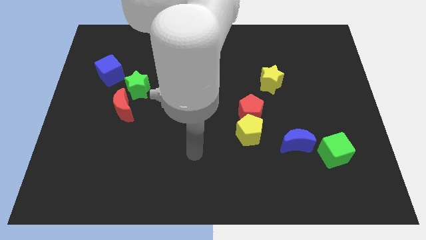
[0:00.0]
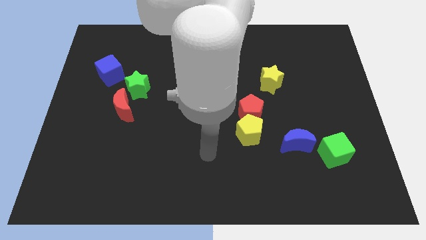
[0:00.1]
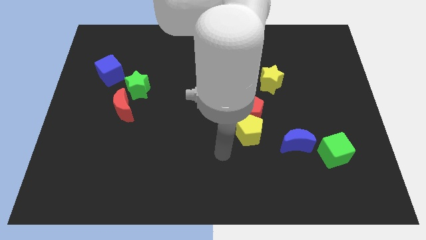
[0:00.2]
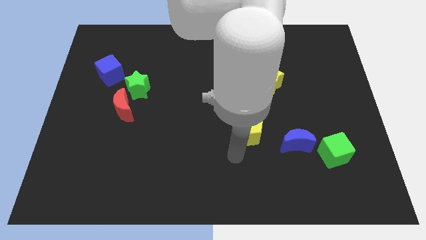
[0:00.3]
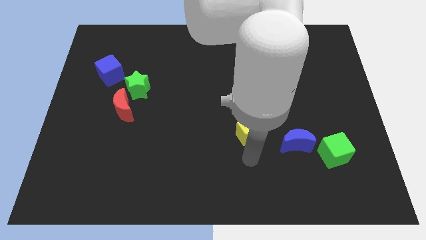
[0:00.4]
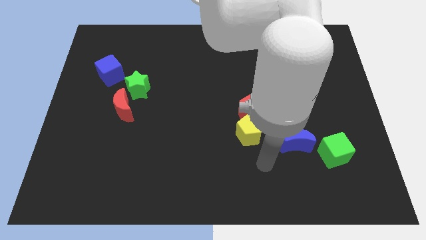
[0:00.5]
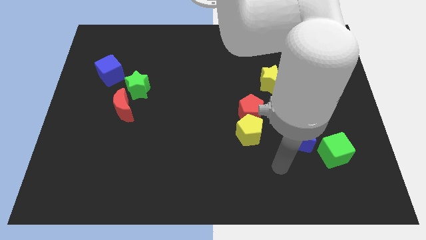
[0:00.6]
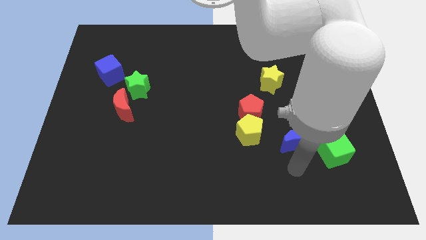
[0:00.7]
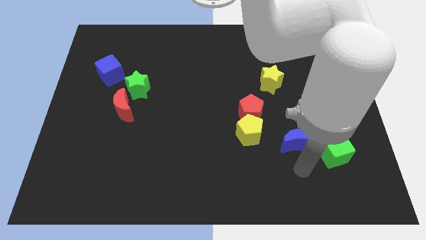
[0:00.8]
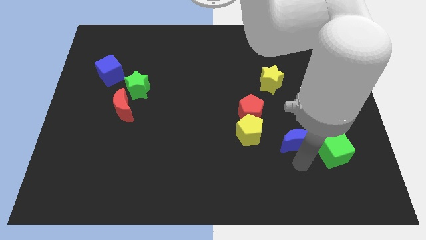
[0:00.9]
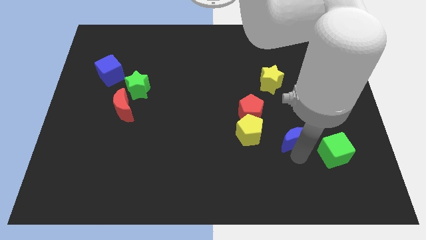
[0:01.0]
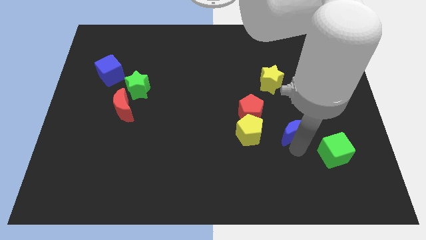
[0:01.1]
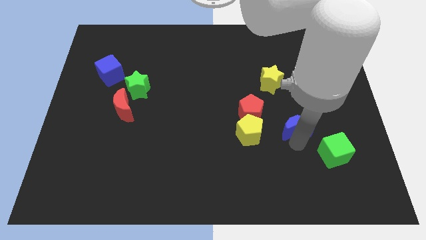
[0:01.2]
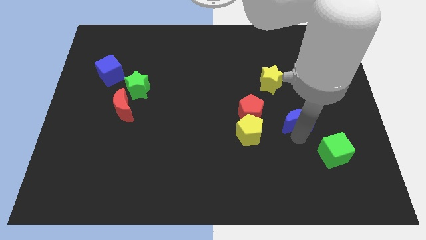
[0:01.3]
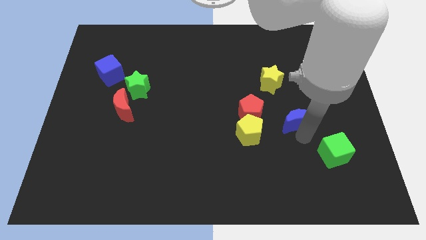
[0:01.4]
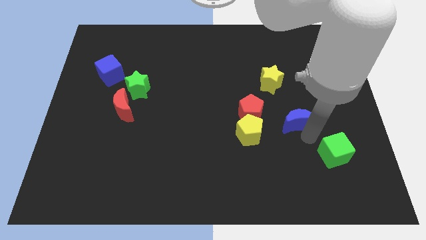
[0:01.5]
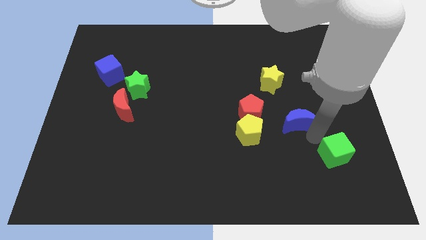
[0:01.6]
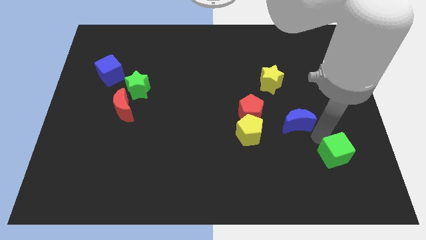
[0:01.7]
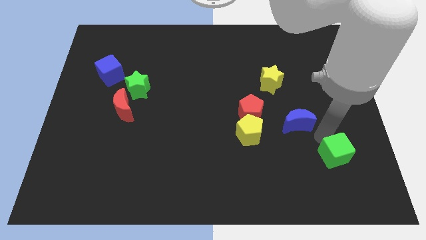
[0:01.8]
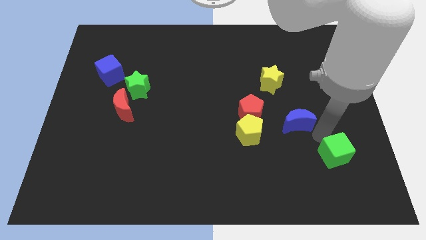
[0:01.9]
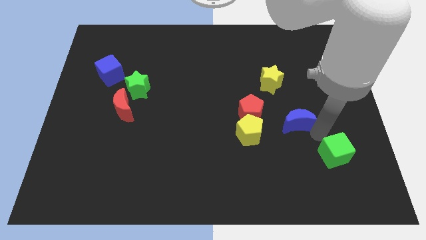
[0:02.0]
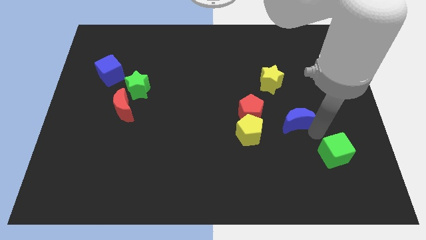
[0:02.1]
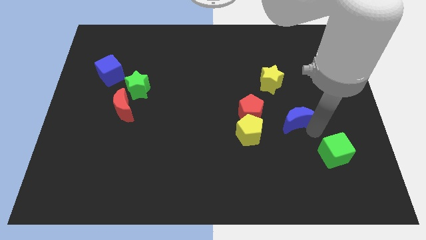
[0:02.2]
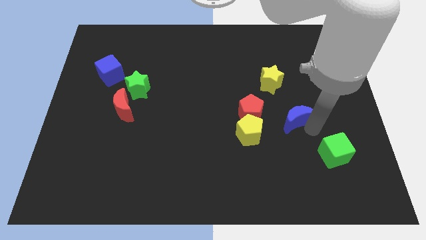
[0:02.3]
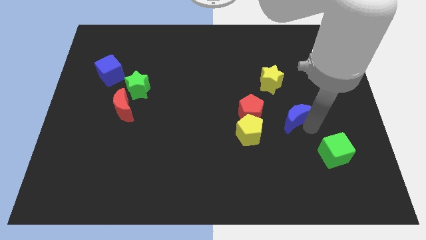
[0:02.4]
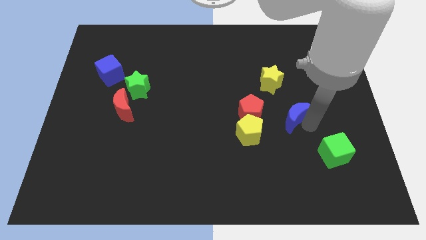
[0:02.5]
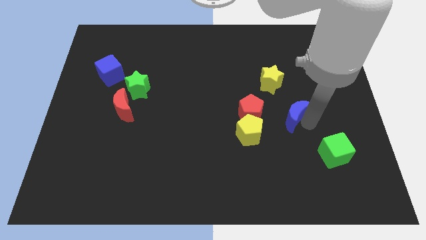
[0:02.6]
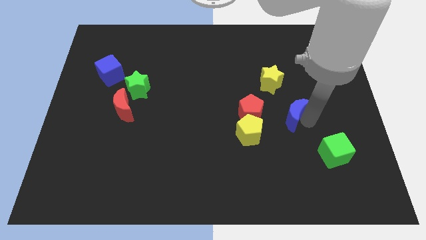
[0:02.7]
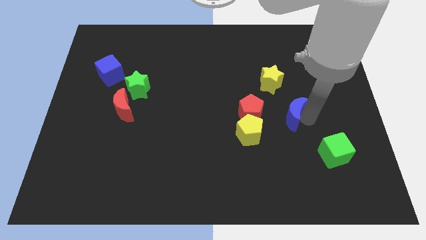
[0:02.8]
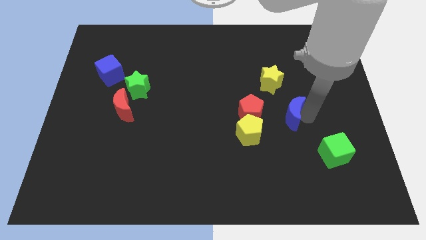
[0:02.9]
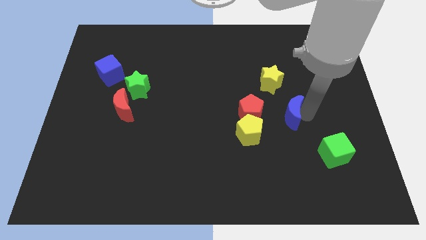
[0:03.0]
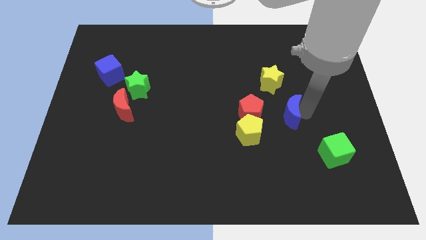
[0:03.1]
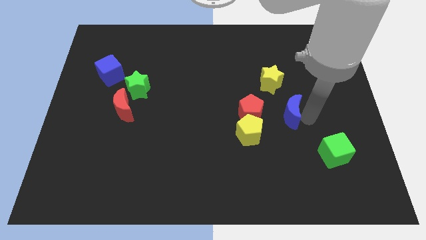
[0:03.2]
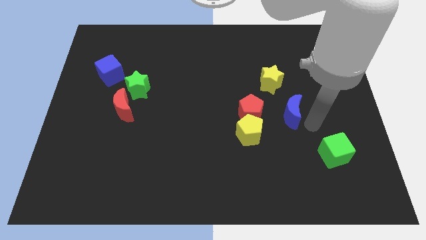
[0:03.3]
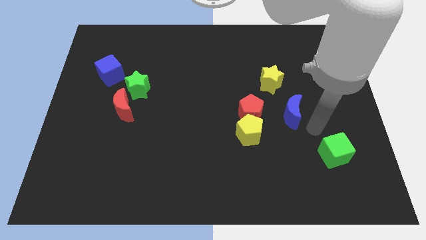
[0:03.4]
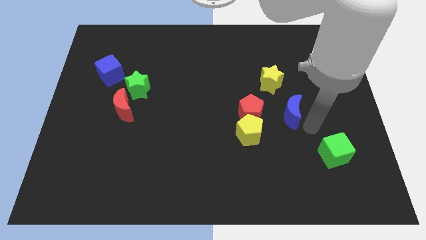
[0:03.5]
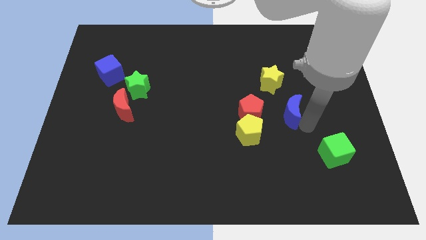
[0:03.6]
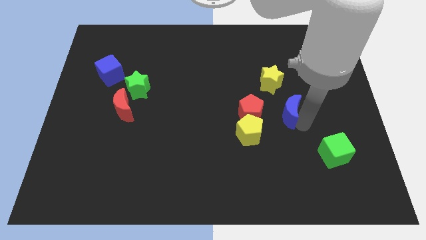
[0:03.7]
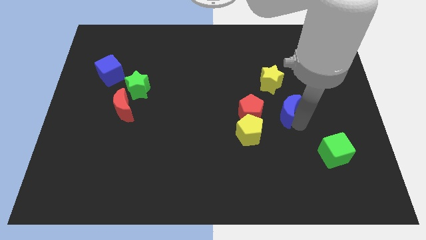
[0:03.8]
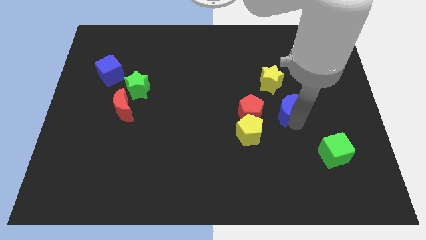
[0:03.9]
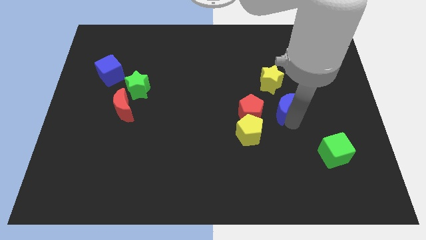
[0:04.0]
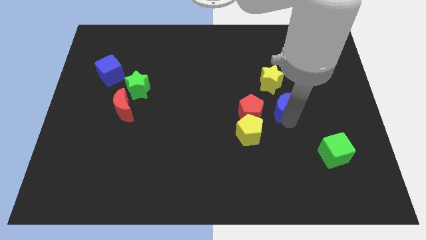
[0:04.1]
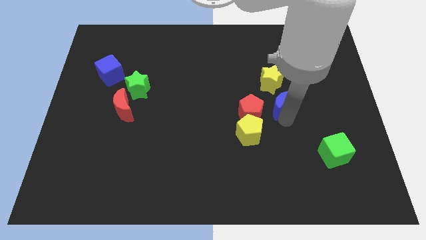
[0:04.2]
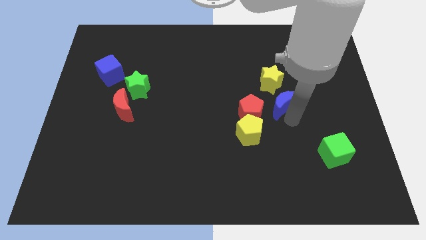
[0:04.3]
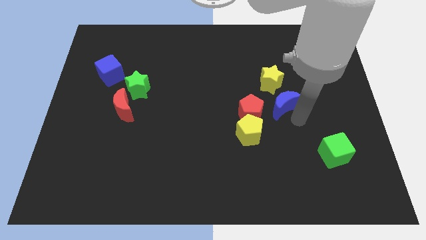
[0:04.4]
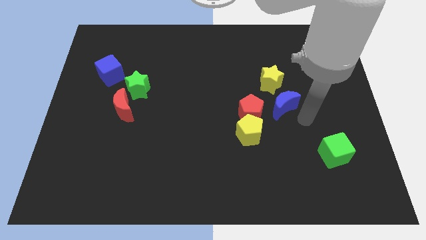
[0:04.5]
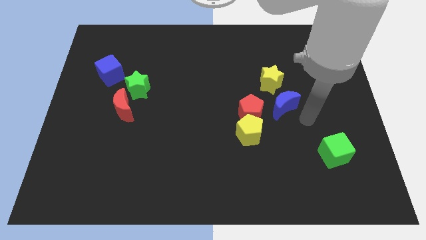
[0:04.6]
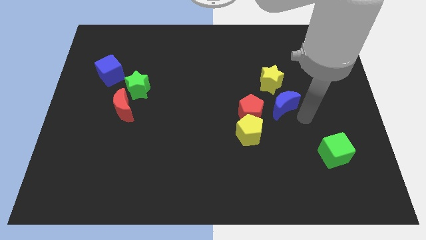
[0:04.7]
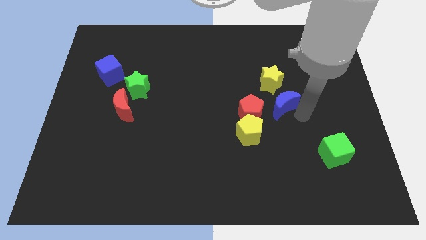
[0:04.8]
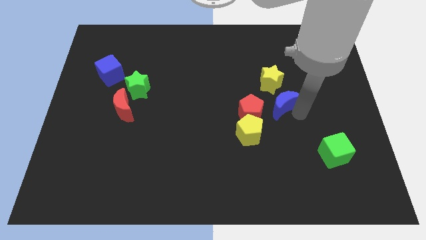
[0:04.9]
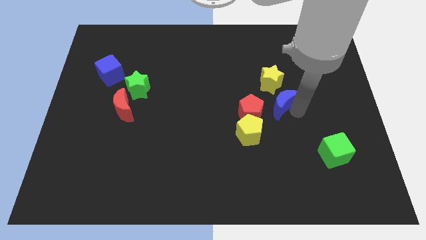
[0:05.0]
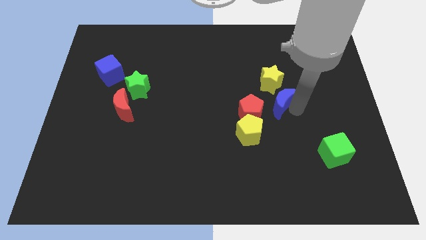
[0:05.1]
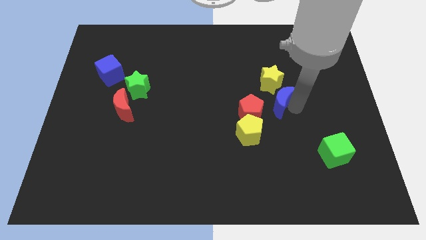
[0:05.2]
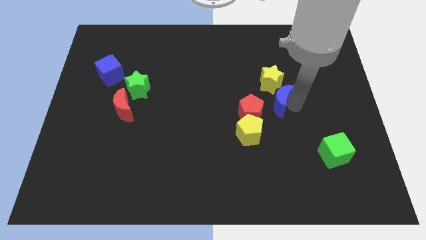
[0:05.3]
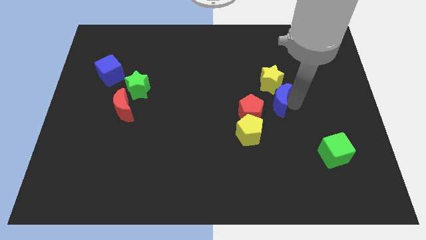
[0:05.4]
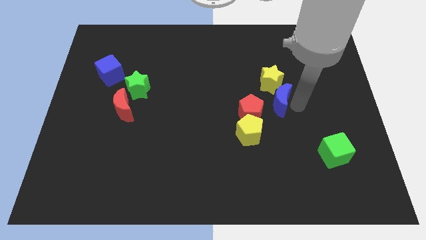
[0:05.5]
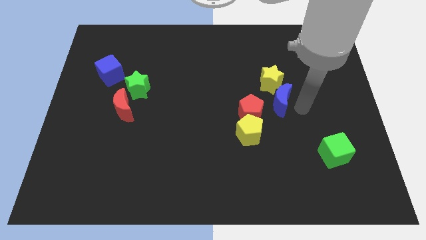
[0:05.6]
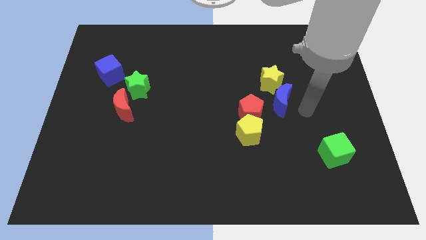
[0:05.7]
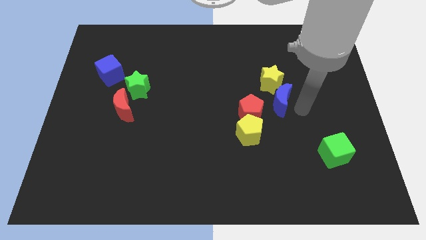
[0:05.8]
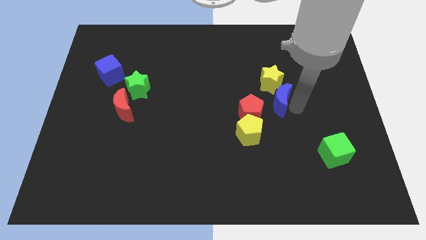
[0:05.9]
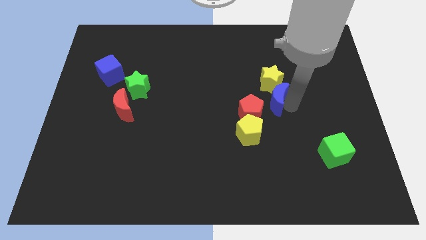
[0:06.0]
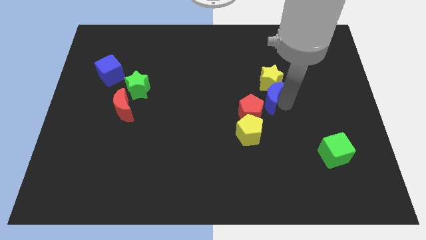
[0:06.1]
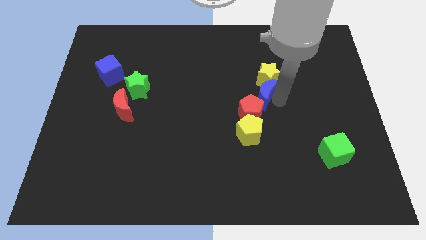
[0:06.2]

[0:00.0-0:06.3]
move the blue moon to the middle
